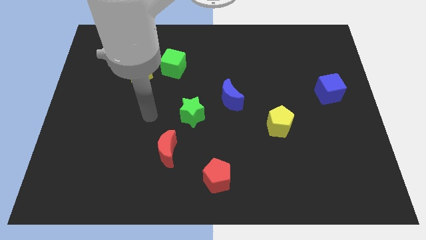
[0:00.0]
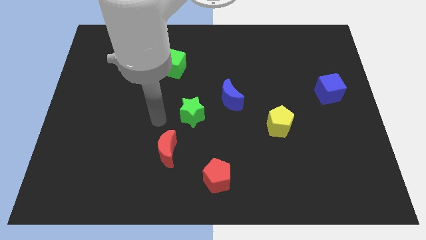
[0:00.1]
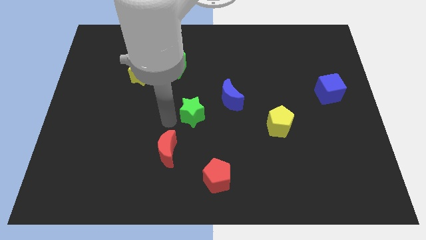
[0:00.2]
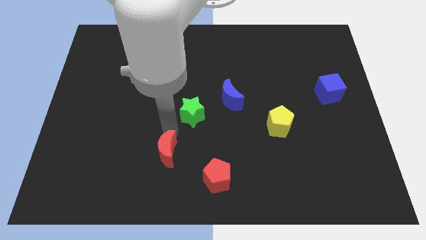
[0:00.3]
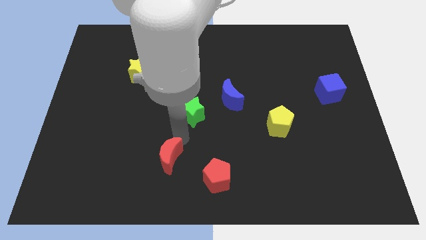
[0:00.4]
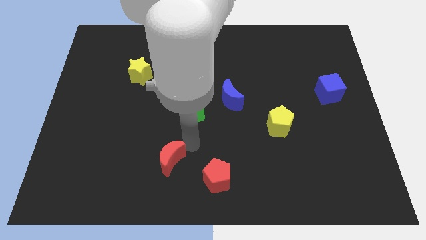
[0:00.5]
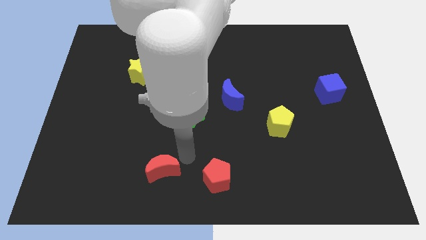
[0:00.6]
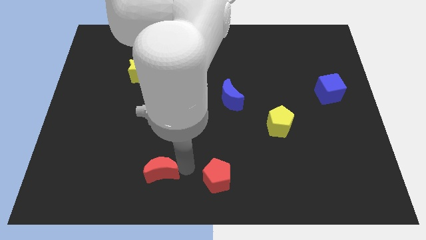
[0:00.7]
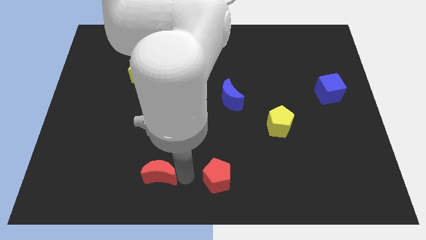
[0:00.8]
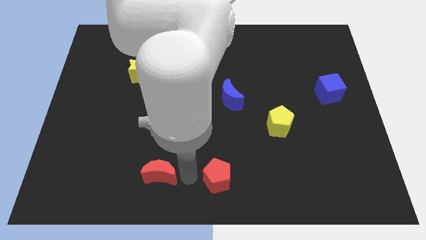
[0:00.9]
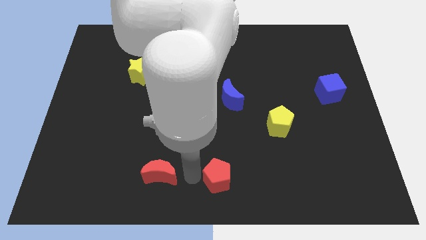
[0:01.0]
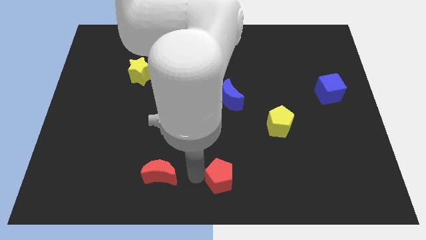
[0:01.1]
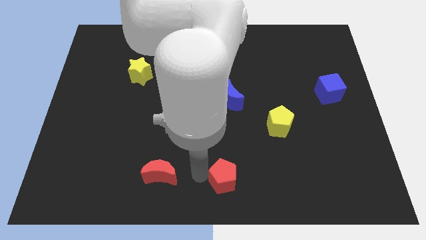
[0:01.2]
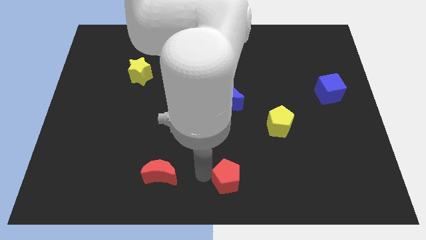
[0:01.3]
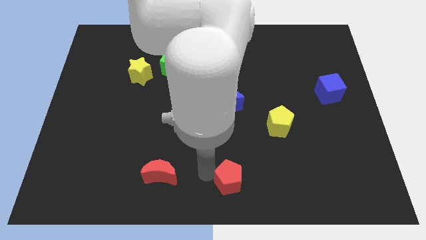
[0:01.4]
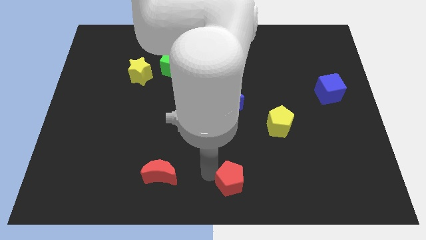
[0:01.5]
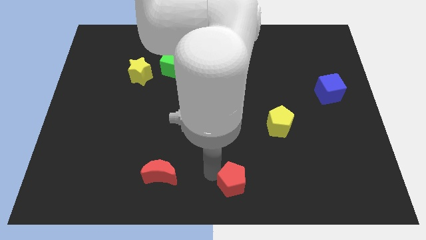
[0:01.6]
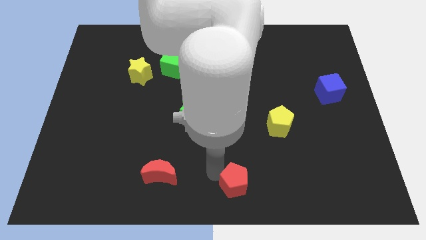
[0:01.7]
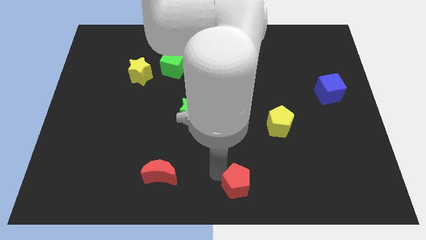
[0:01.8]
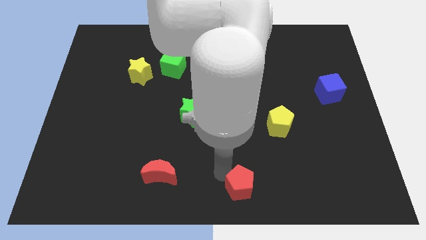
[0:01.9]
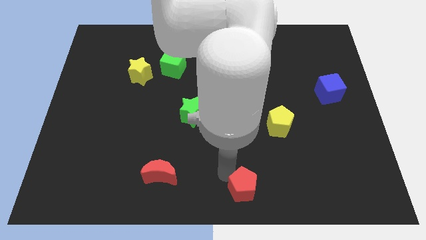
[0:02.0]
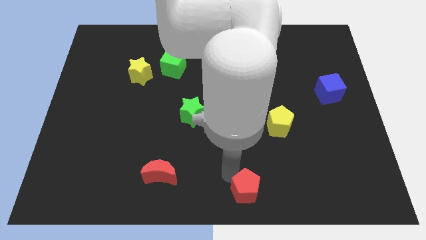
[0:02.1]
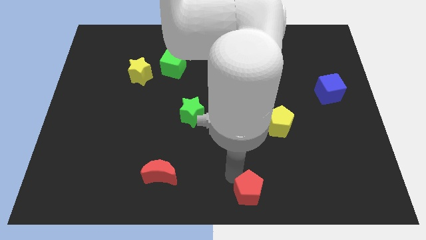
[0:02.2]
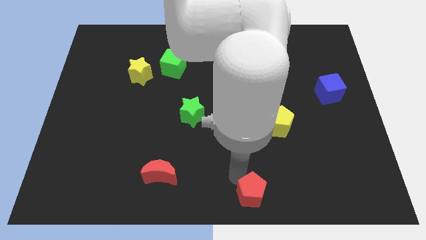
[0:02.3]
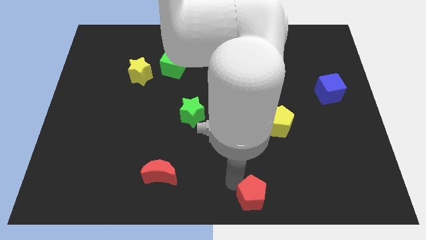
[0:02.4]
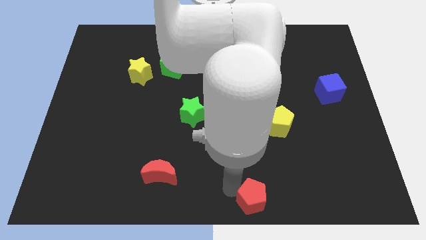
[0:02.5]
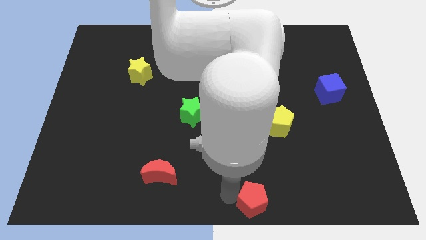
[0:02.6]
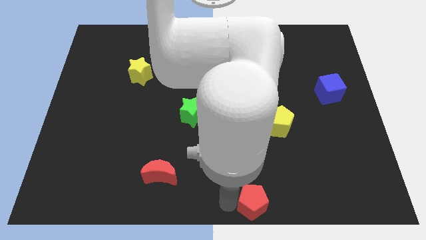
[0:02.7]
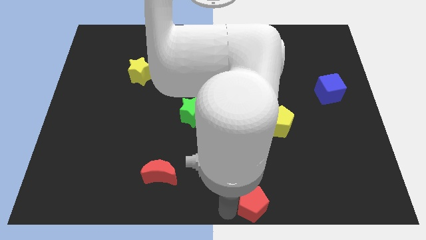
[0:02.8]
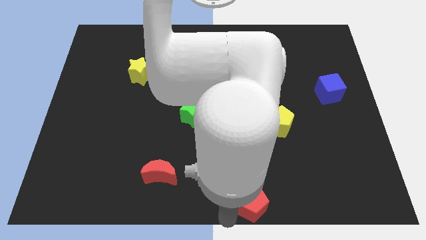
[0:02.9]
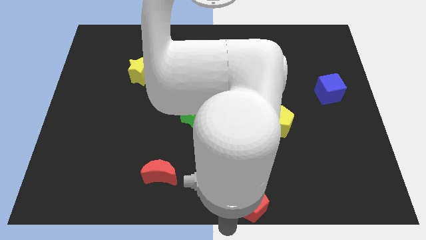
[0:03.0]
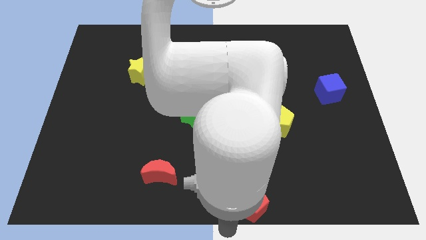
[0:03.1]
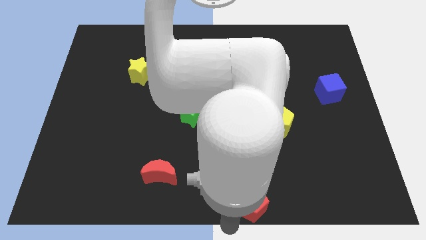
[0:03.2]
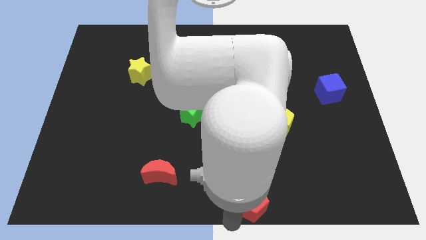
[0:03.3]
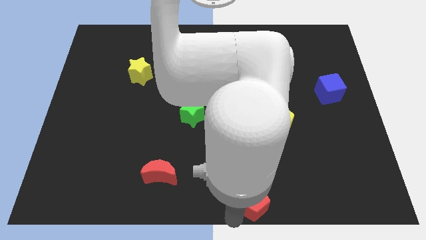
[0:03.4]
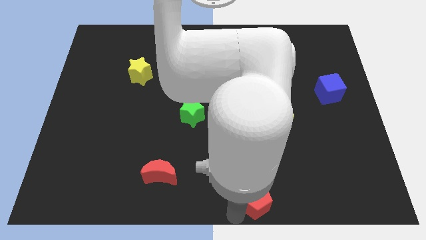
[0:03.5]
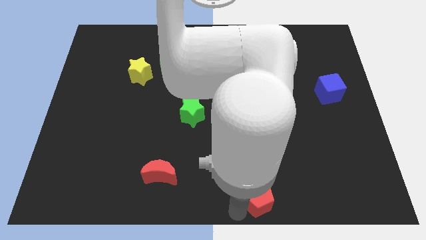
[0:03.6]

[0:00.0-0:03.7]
slide the red pentagon somewhat right

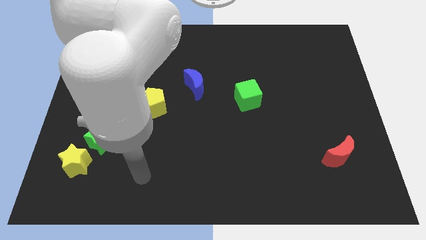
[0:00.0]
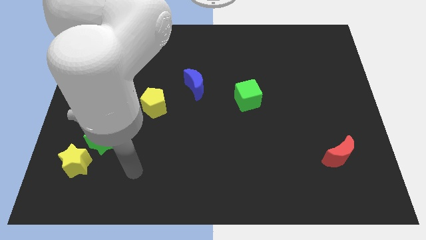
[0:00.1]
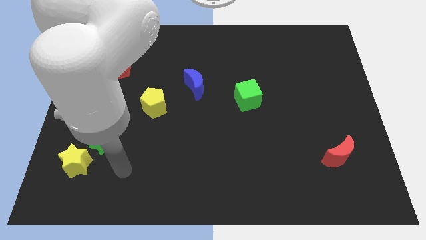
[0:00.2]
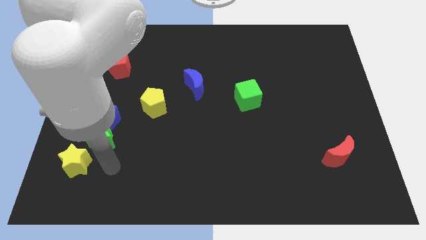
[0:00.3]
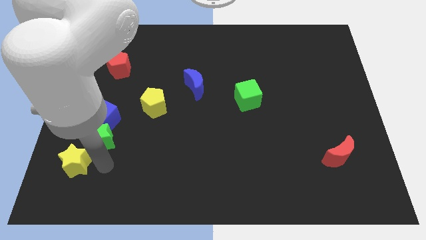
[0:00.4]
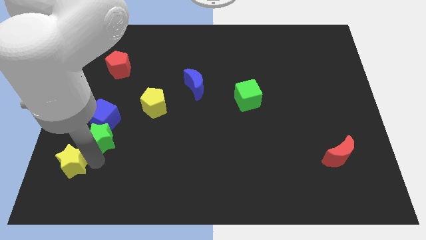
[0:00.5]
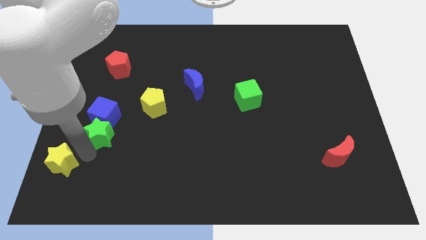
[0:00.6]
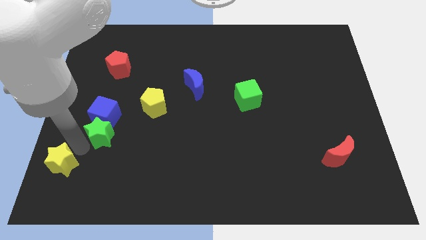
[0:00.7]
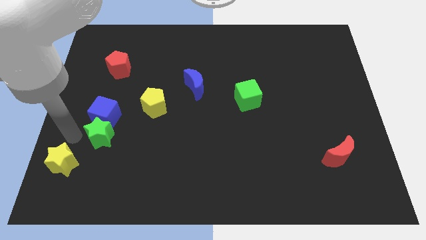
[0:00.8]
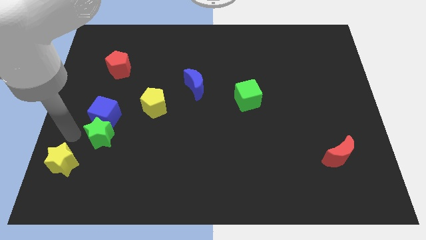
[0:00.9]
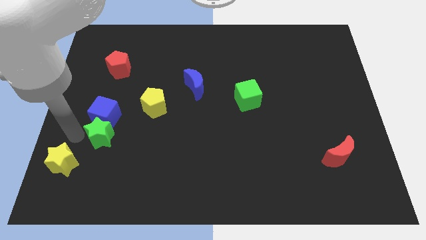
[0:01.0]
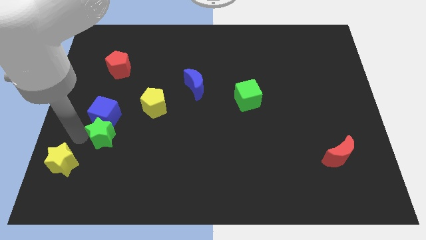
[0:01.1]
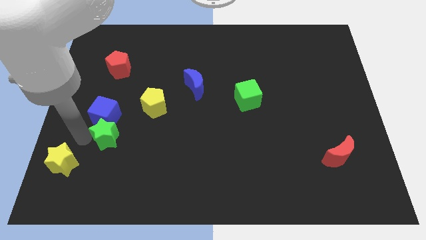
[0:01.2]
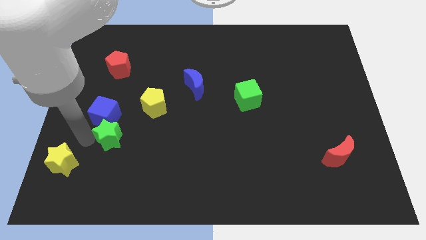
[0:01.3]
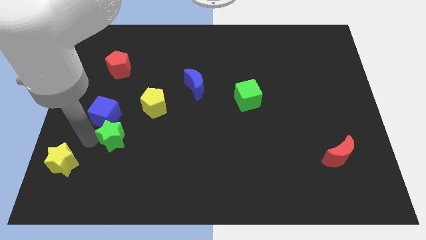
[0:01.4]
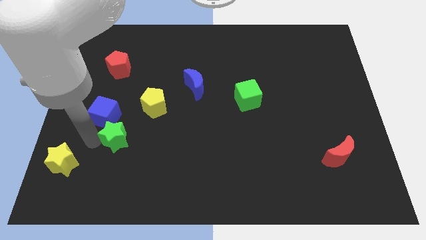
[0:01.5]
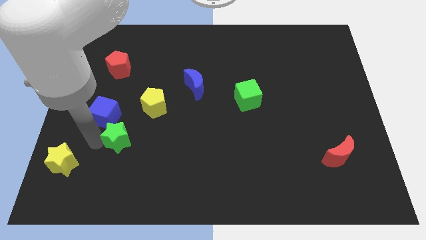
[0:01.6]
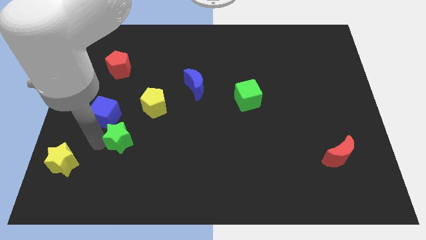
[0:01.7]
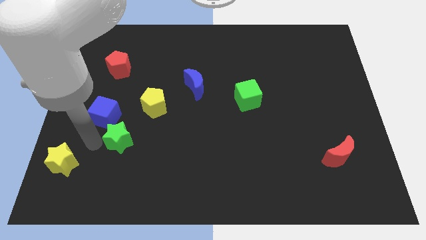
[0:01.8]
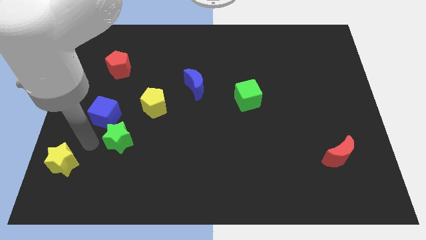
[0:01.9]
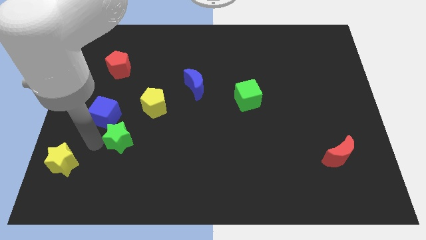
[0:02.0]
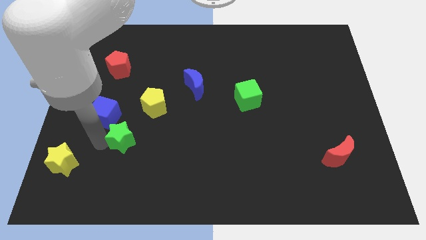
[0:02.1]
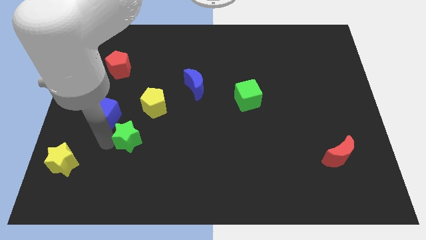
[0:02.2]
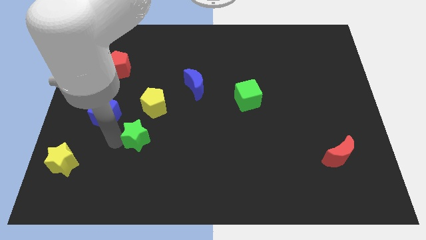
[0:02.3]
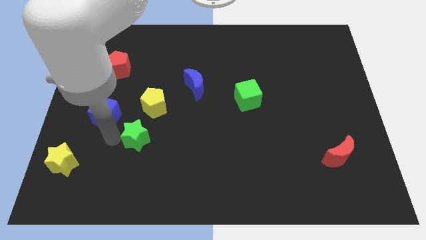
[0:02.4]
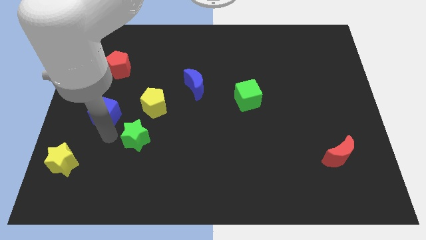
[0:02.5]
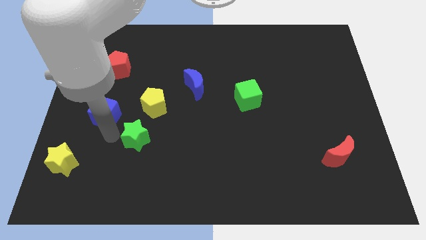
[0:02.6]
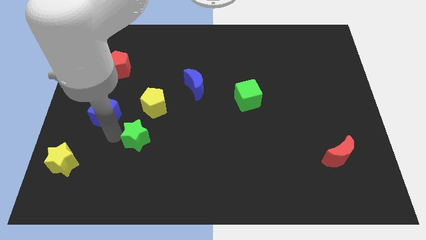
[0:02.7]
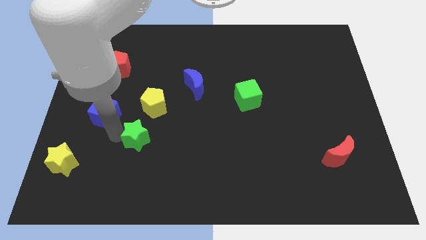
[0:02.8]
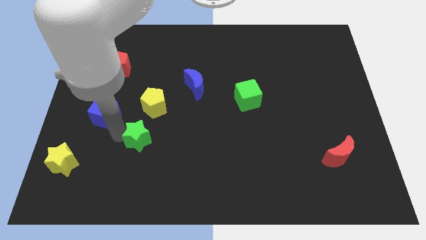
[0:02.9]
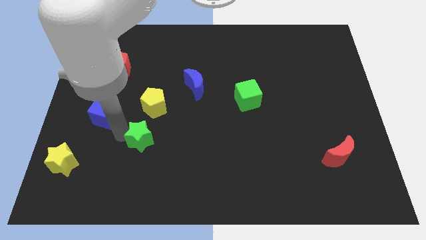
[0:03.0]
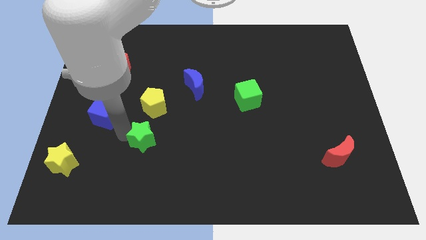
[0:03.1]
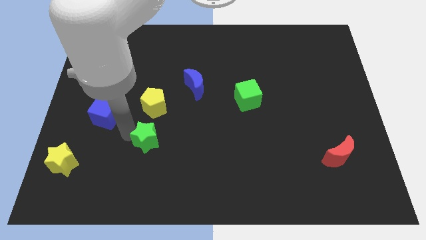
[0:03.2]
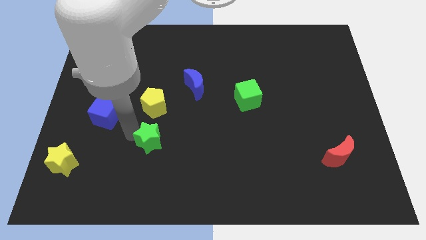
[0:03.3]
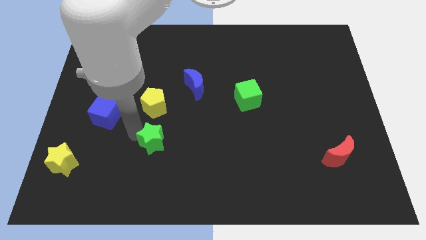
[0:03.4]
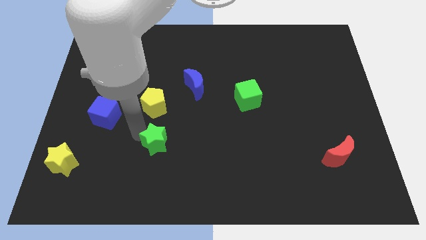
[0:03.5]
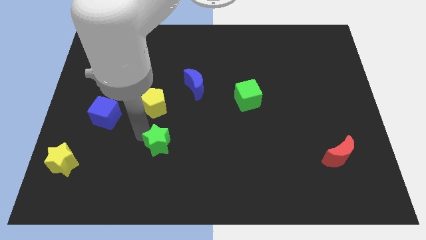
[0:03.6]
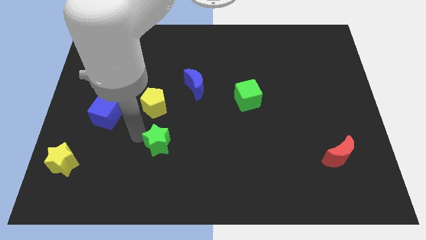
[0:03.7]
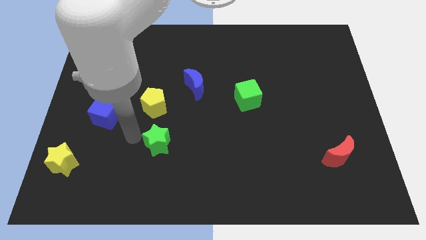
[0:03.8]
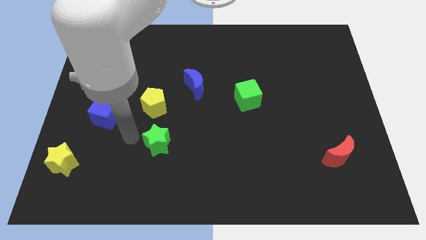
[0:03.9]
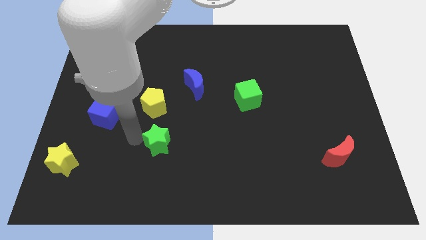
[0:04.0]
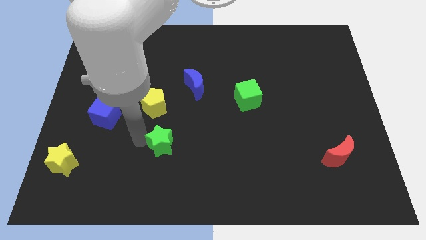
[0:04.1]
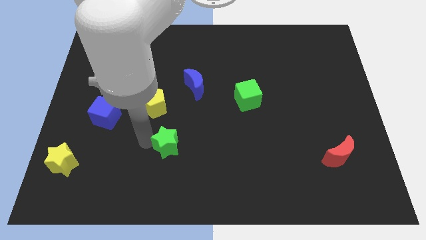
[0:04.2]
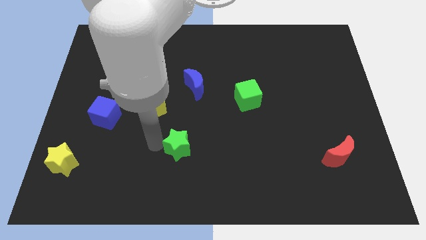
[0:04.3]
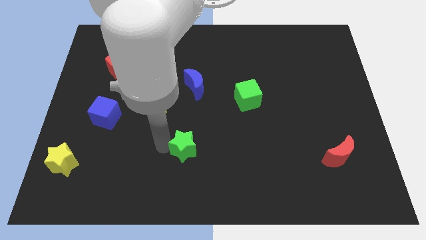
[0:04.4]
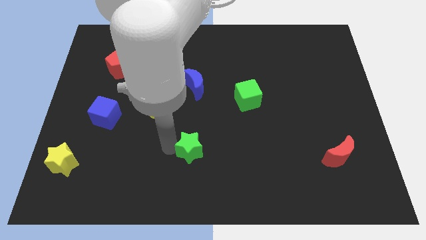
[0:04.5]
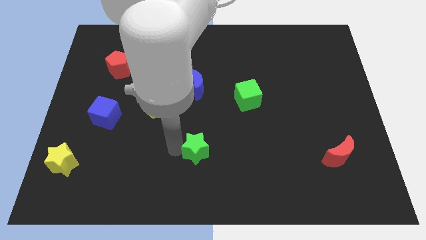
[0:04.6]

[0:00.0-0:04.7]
push the green star to the right
